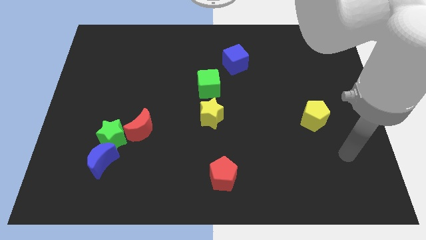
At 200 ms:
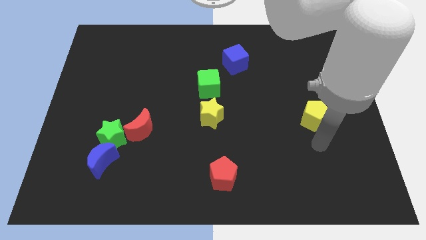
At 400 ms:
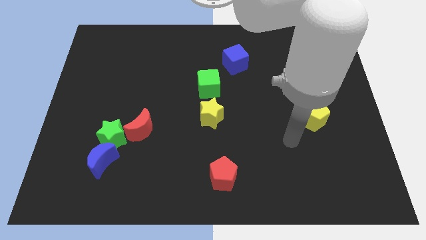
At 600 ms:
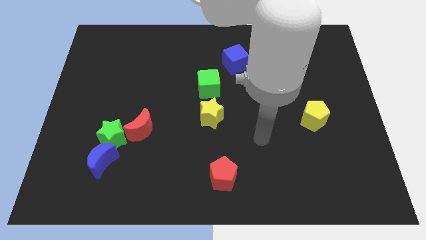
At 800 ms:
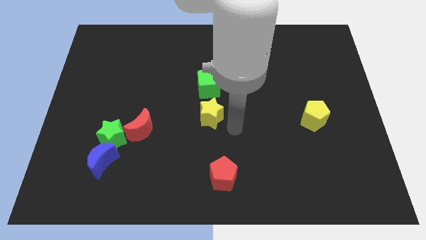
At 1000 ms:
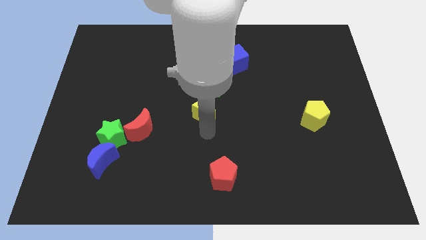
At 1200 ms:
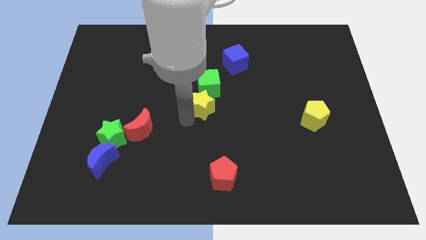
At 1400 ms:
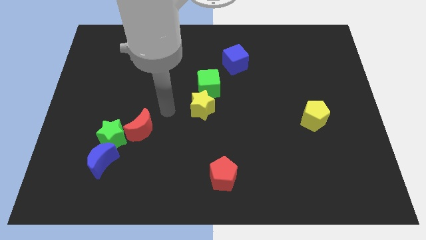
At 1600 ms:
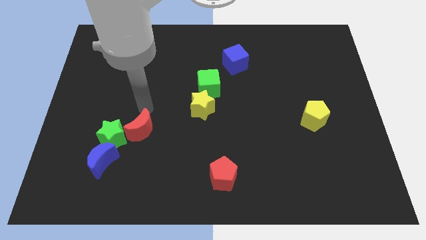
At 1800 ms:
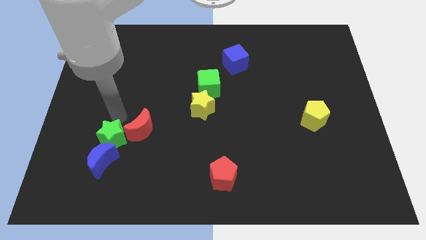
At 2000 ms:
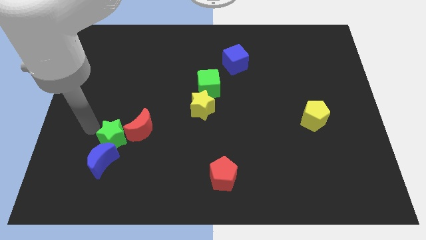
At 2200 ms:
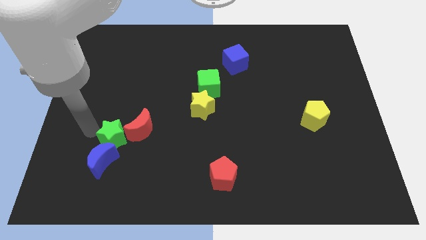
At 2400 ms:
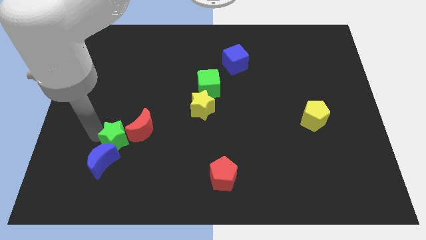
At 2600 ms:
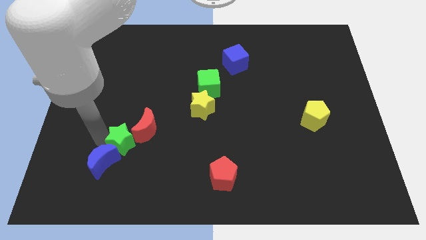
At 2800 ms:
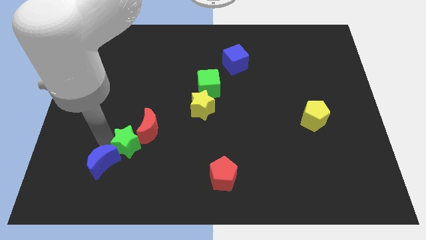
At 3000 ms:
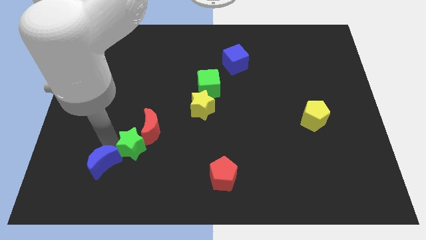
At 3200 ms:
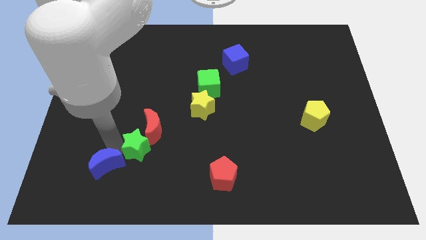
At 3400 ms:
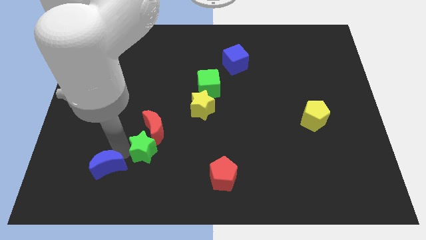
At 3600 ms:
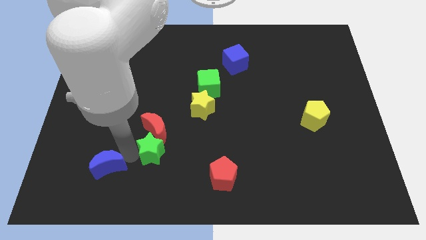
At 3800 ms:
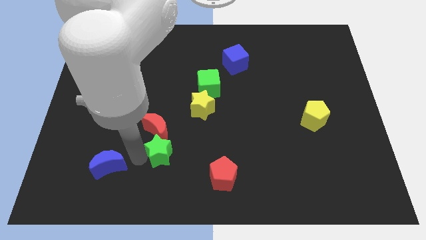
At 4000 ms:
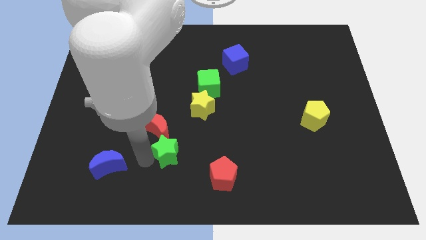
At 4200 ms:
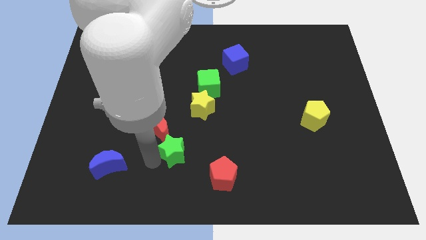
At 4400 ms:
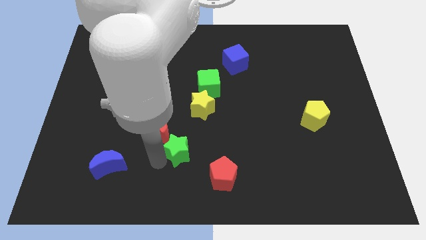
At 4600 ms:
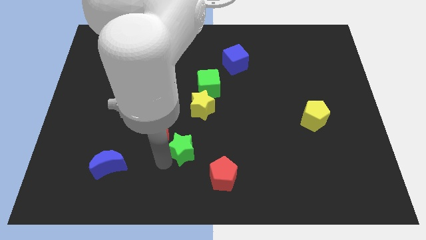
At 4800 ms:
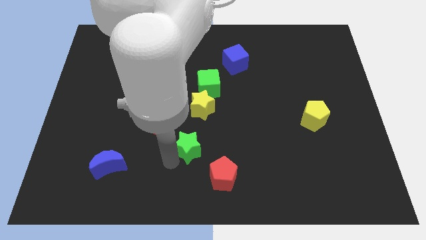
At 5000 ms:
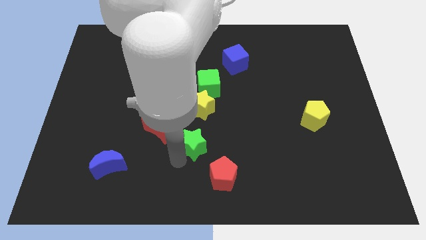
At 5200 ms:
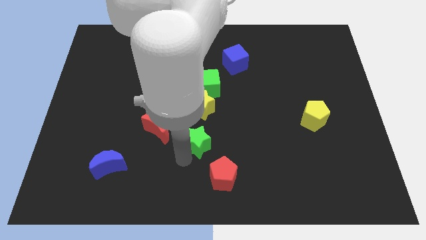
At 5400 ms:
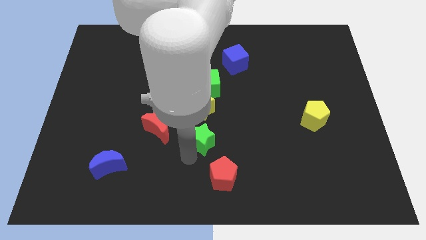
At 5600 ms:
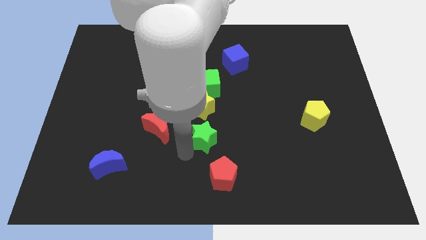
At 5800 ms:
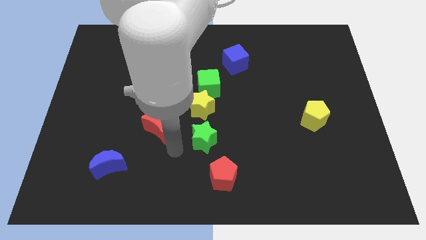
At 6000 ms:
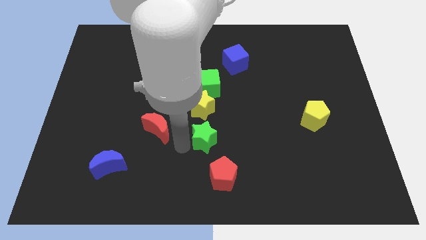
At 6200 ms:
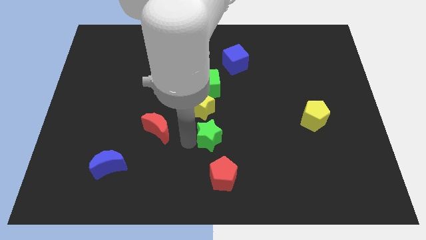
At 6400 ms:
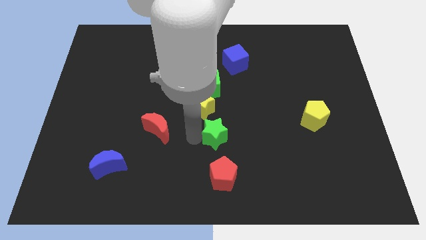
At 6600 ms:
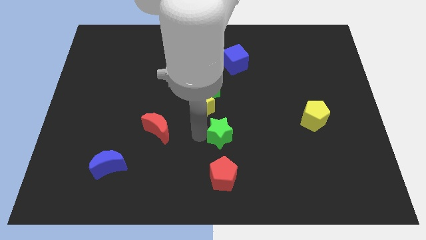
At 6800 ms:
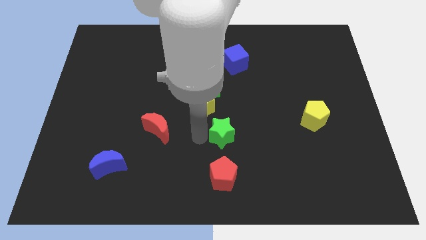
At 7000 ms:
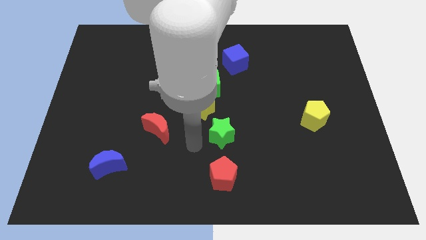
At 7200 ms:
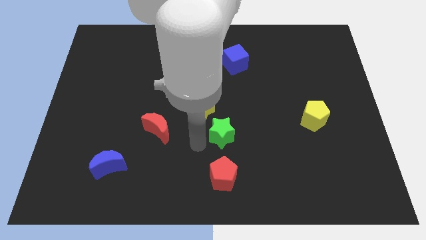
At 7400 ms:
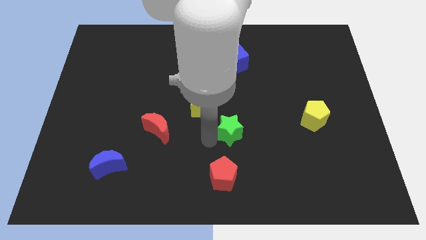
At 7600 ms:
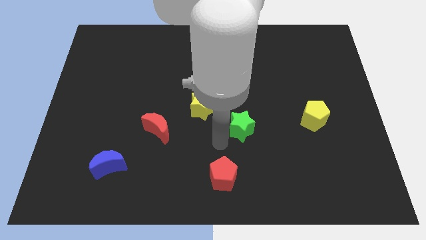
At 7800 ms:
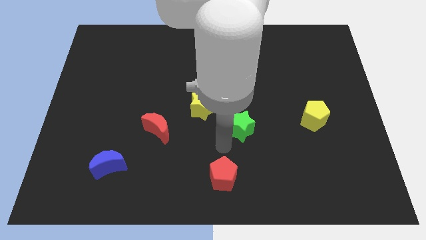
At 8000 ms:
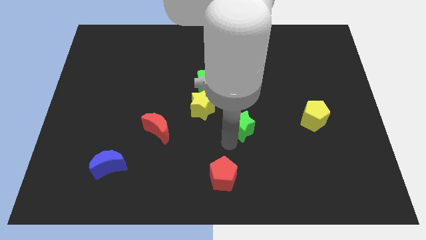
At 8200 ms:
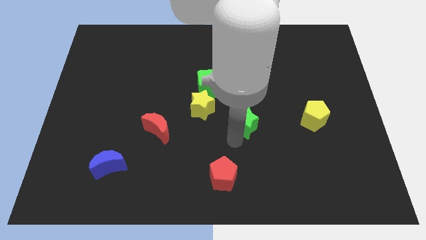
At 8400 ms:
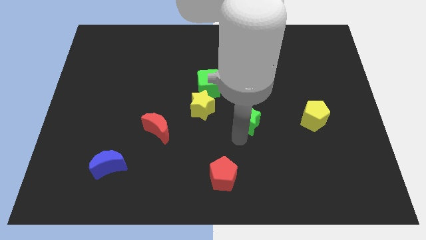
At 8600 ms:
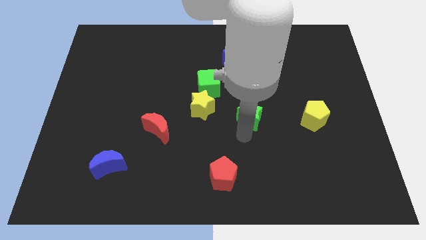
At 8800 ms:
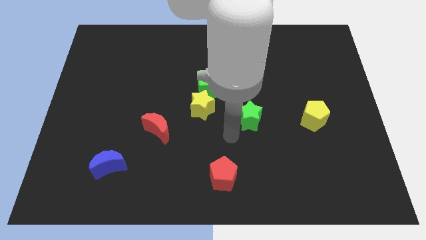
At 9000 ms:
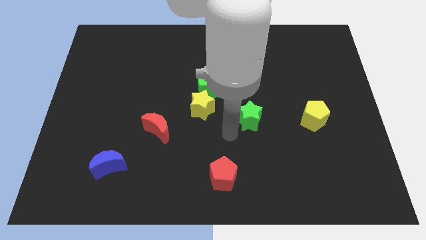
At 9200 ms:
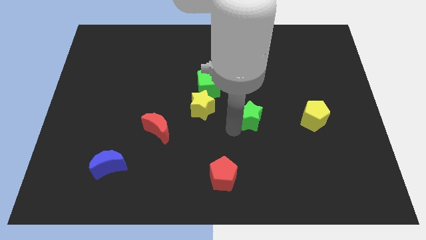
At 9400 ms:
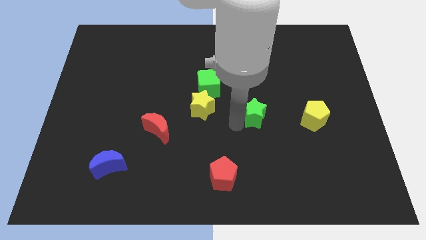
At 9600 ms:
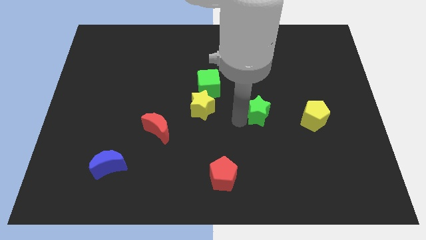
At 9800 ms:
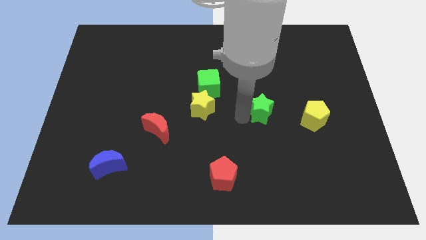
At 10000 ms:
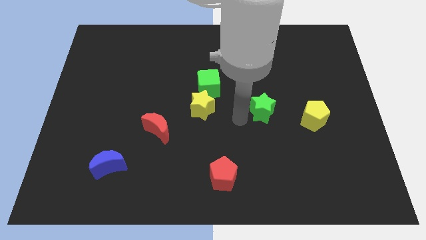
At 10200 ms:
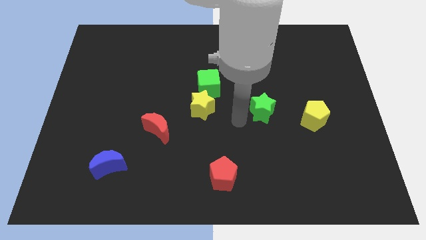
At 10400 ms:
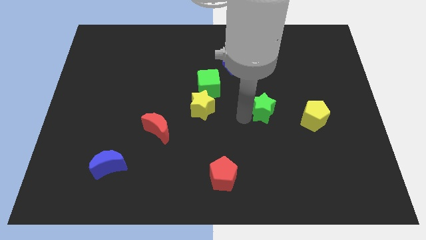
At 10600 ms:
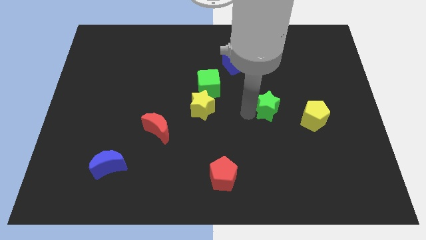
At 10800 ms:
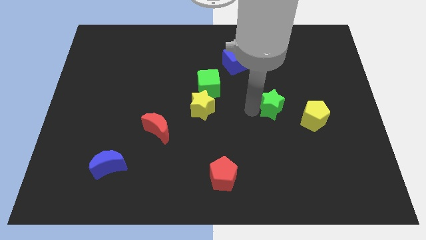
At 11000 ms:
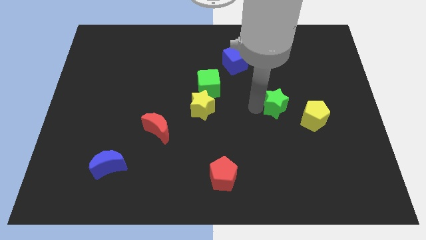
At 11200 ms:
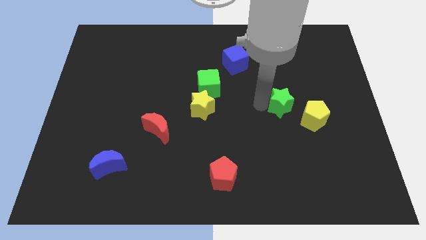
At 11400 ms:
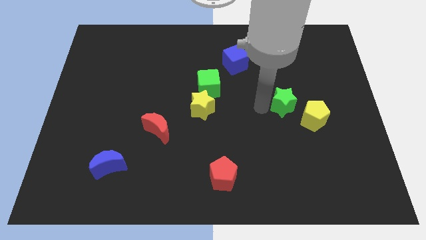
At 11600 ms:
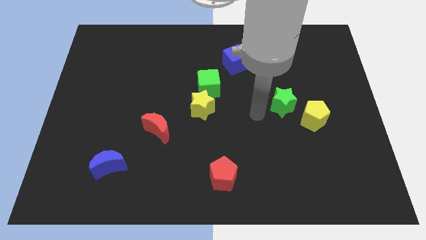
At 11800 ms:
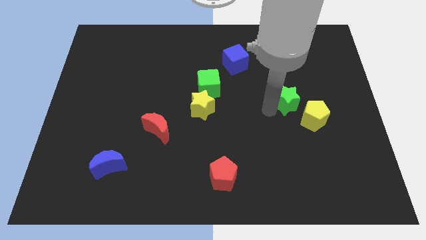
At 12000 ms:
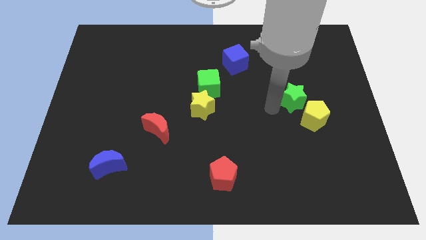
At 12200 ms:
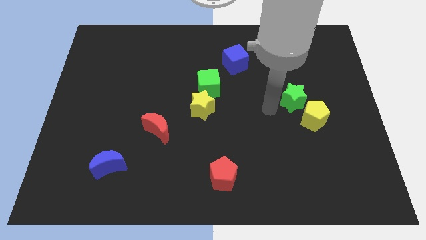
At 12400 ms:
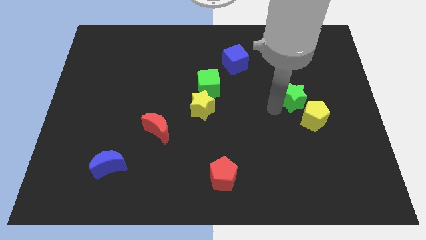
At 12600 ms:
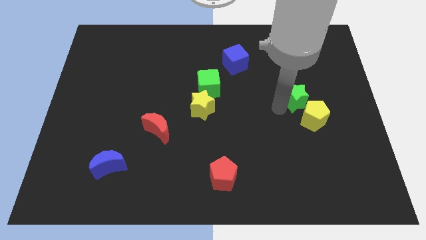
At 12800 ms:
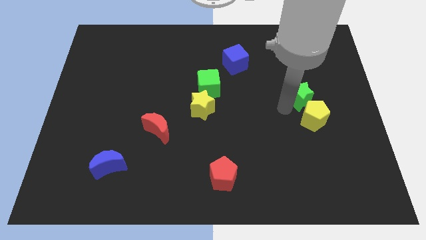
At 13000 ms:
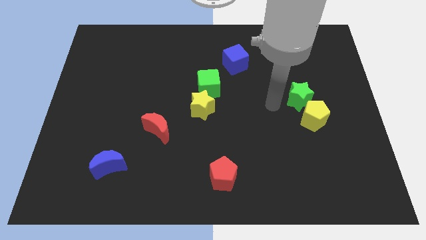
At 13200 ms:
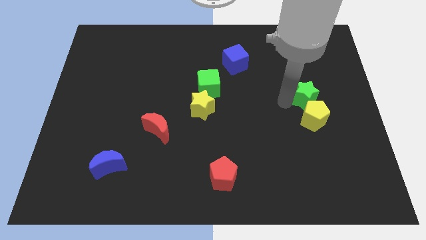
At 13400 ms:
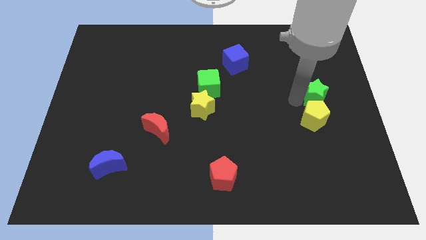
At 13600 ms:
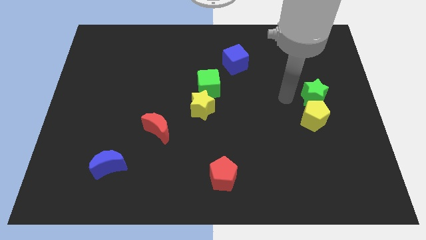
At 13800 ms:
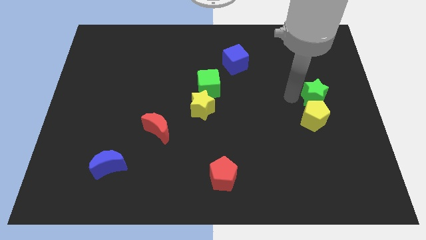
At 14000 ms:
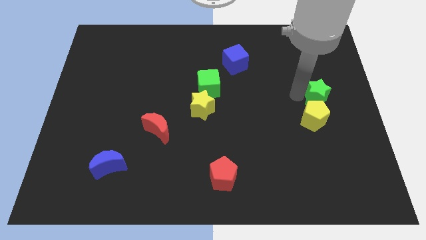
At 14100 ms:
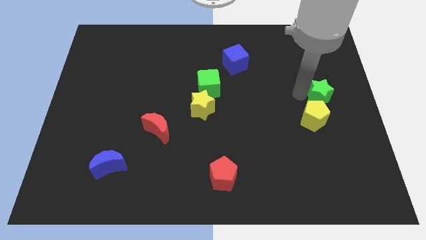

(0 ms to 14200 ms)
slide the green star to the center right
